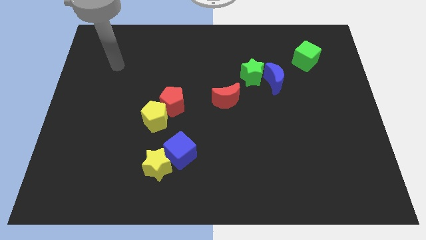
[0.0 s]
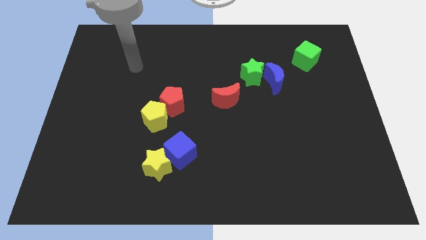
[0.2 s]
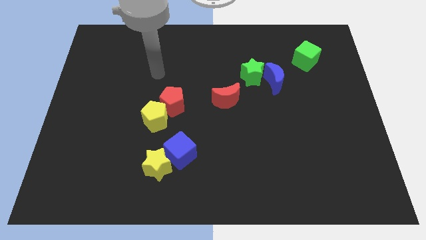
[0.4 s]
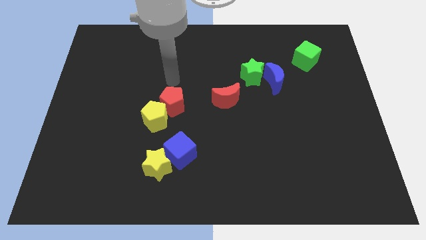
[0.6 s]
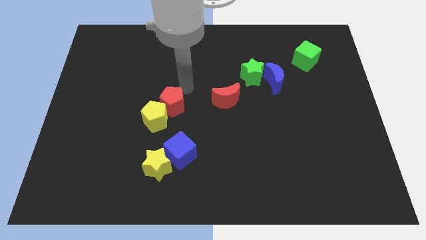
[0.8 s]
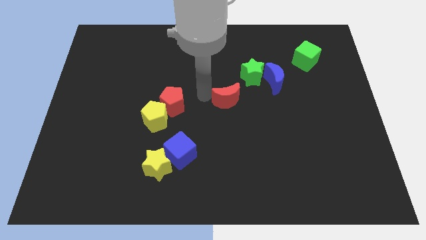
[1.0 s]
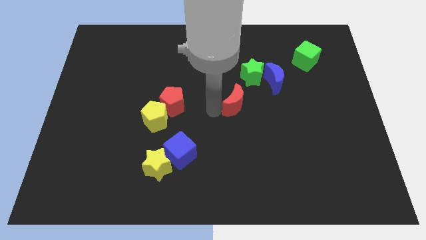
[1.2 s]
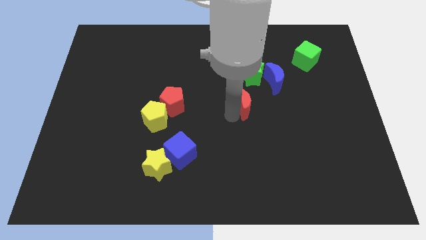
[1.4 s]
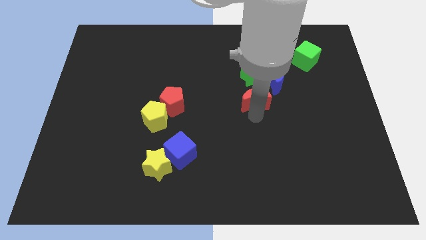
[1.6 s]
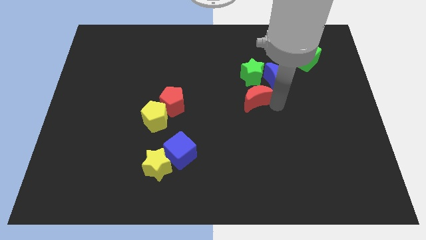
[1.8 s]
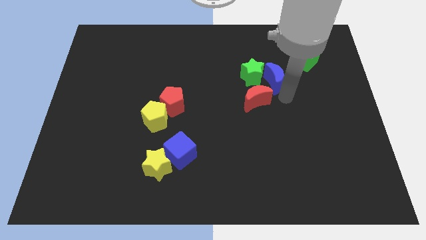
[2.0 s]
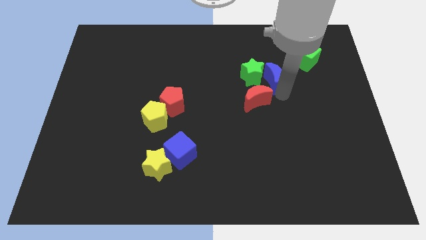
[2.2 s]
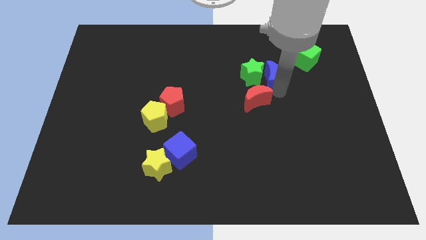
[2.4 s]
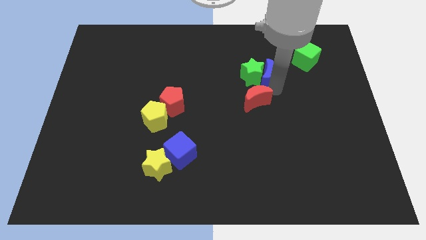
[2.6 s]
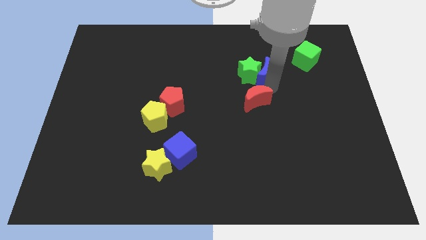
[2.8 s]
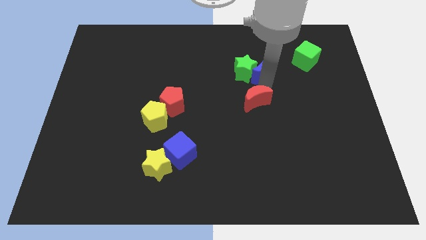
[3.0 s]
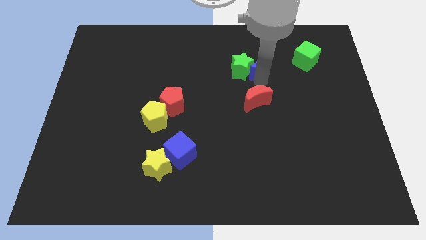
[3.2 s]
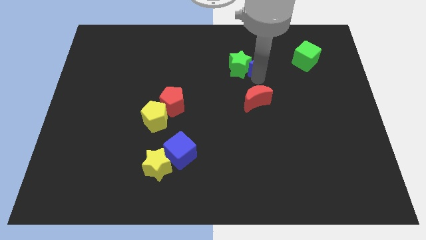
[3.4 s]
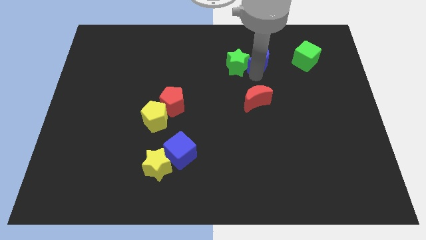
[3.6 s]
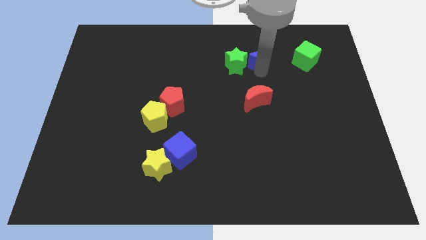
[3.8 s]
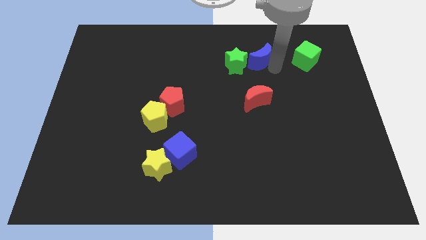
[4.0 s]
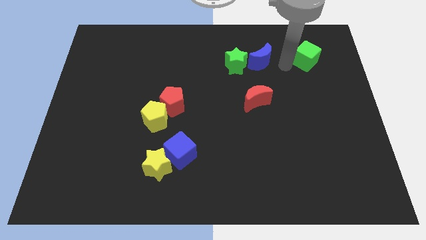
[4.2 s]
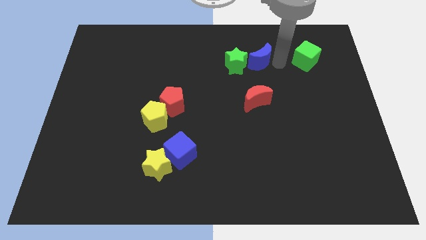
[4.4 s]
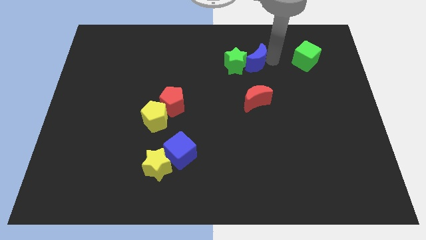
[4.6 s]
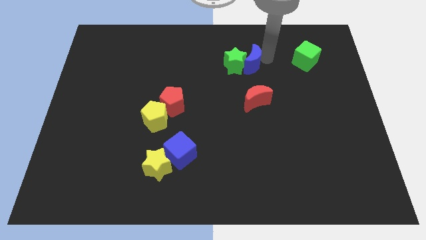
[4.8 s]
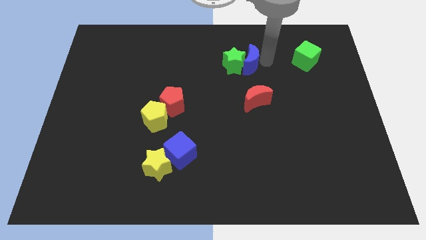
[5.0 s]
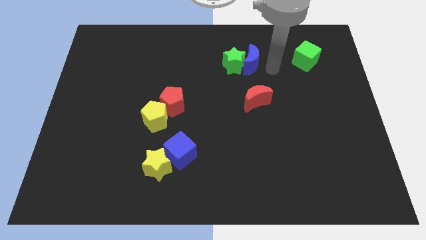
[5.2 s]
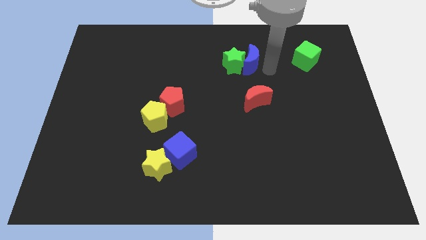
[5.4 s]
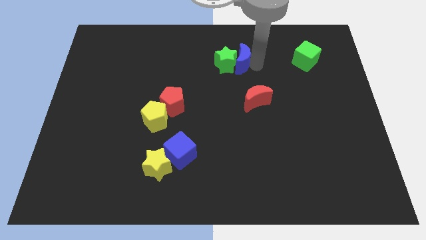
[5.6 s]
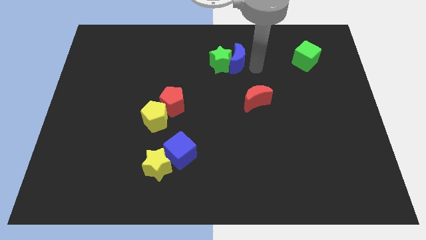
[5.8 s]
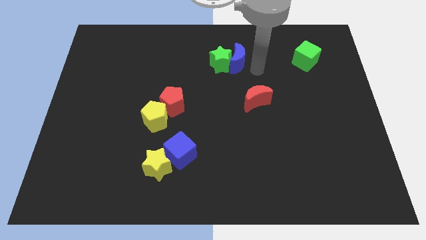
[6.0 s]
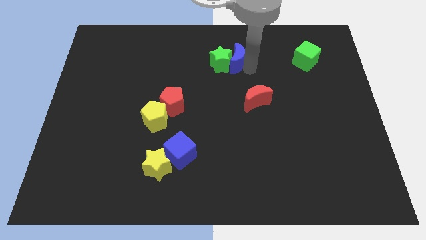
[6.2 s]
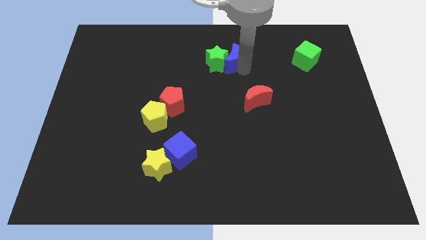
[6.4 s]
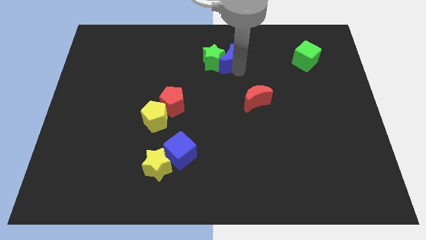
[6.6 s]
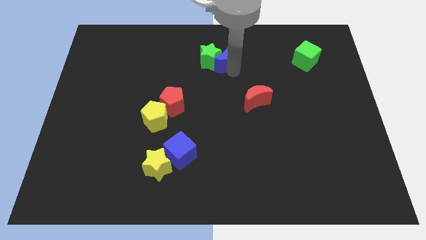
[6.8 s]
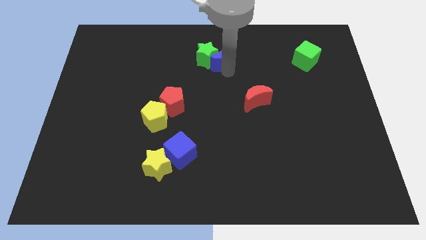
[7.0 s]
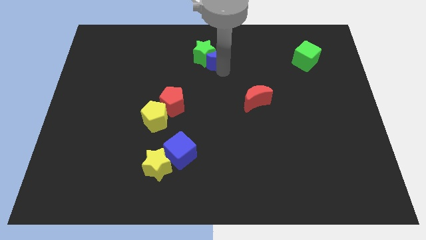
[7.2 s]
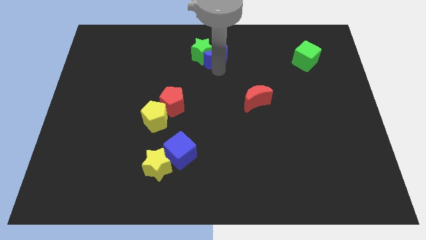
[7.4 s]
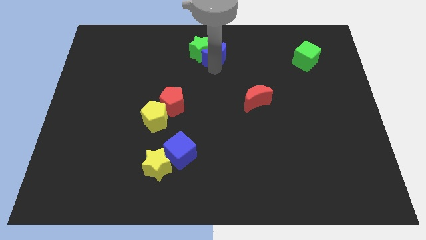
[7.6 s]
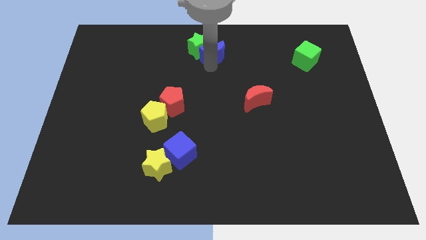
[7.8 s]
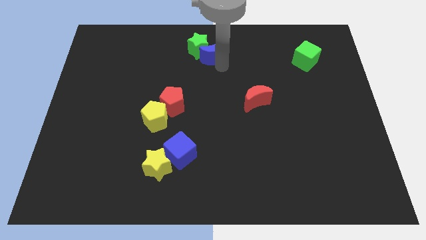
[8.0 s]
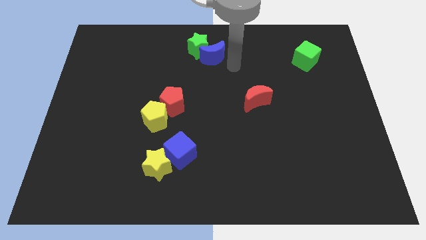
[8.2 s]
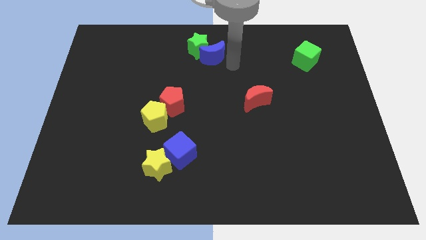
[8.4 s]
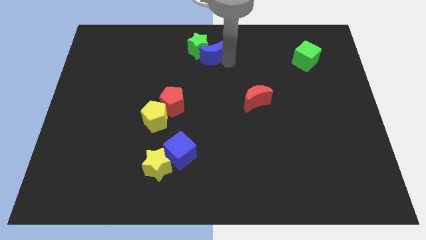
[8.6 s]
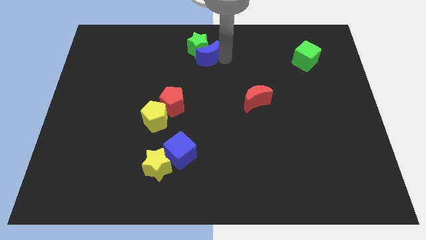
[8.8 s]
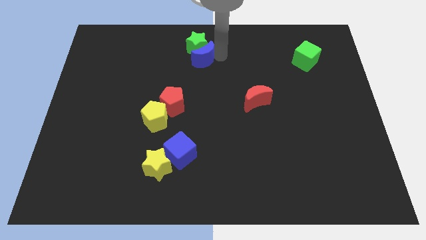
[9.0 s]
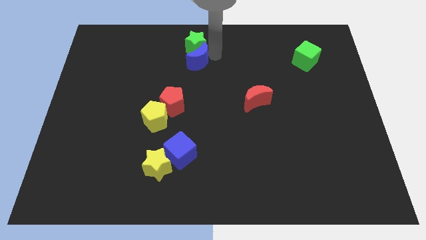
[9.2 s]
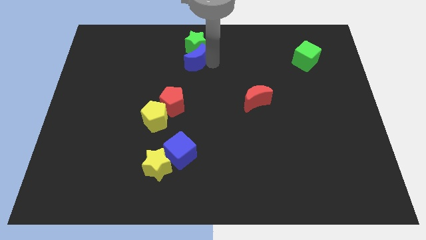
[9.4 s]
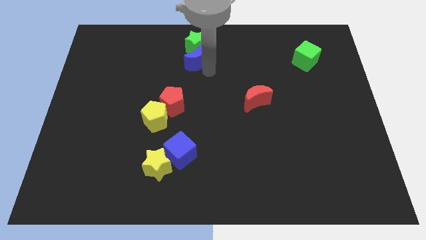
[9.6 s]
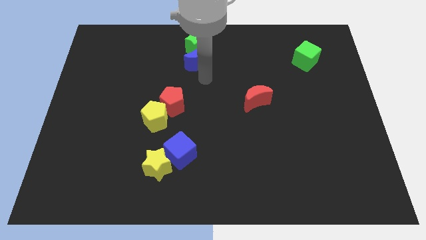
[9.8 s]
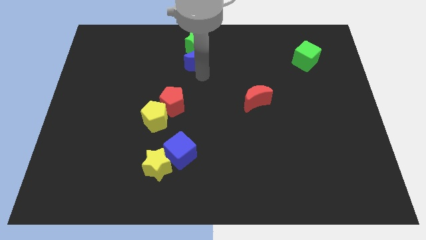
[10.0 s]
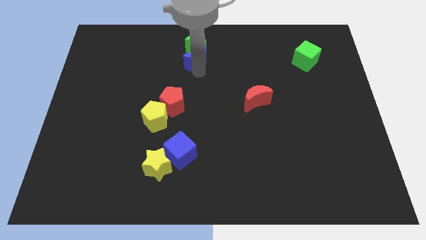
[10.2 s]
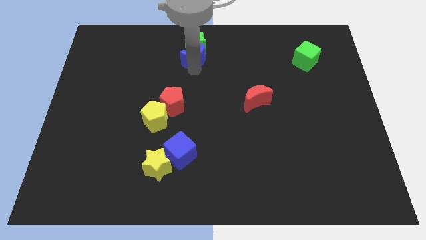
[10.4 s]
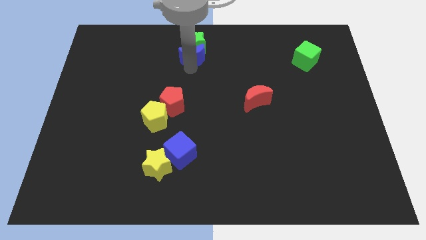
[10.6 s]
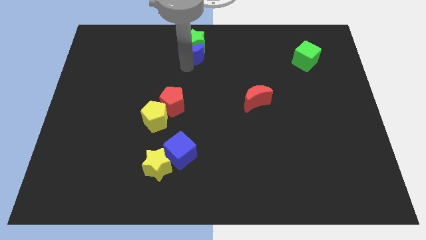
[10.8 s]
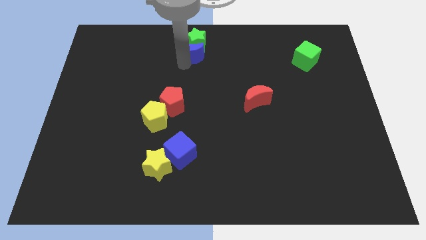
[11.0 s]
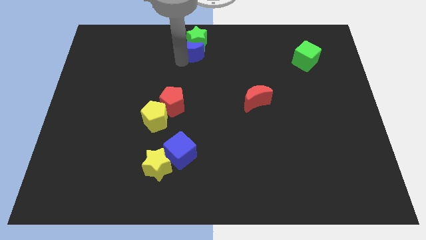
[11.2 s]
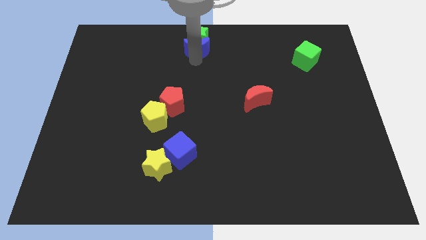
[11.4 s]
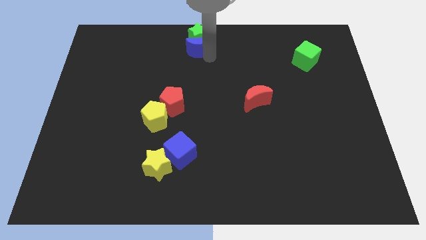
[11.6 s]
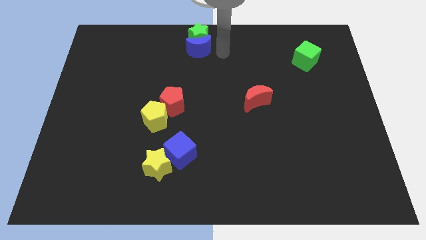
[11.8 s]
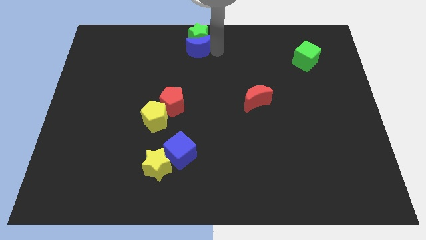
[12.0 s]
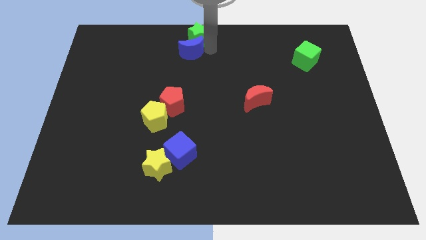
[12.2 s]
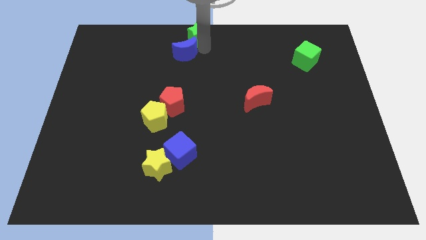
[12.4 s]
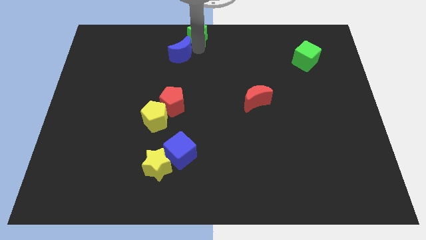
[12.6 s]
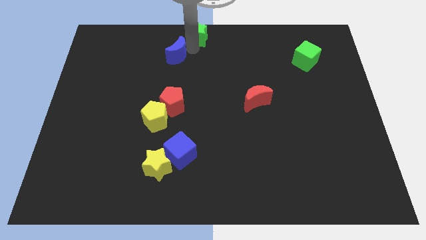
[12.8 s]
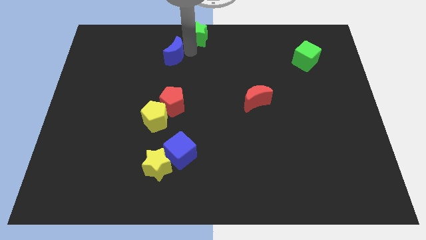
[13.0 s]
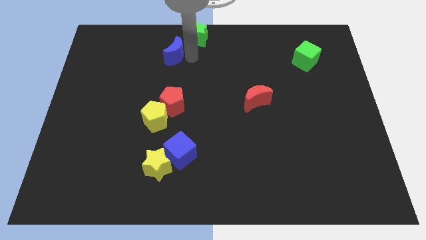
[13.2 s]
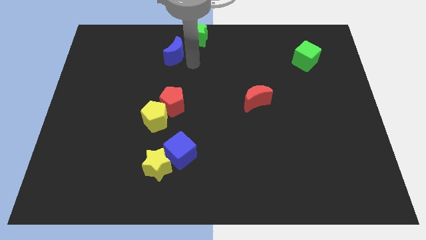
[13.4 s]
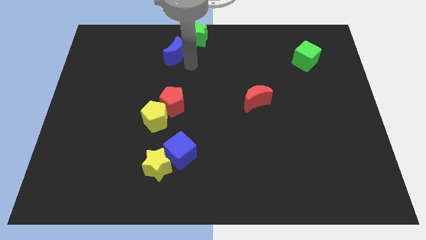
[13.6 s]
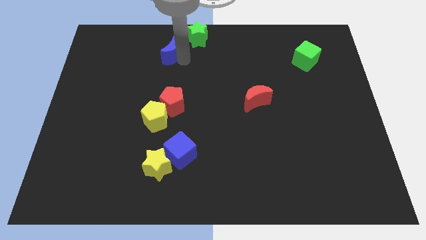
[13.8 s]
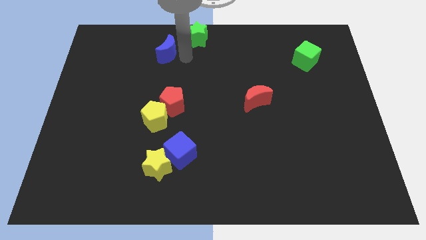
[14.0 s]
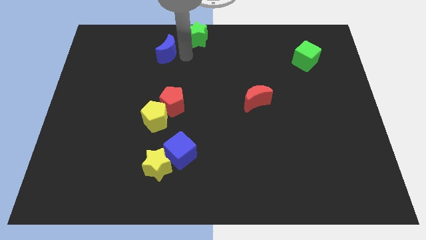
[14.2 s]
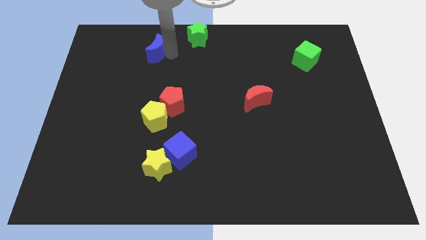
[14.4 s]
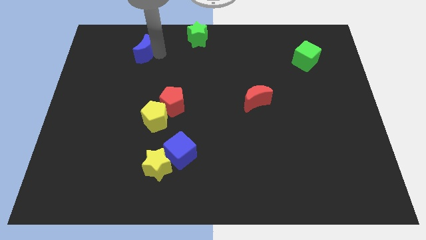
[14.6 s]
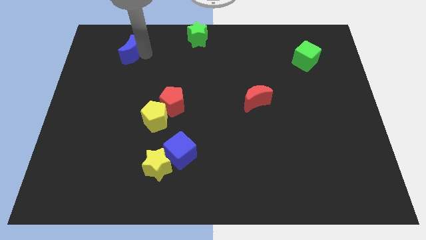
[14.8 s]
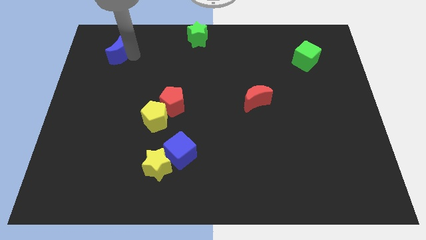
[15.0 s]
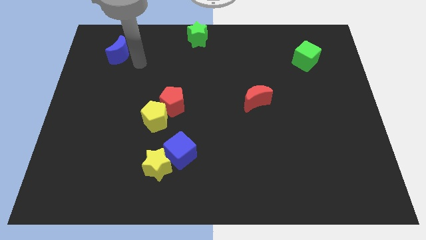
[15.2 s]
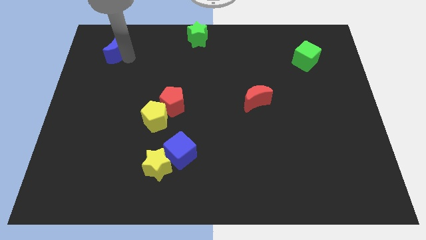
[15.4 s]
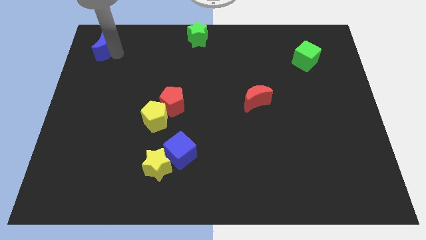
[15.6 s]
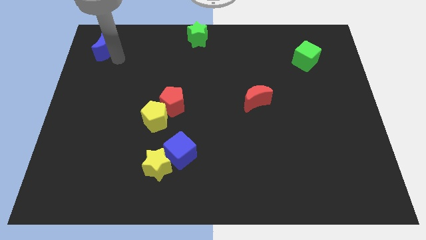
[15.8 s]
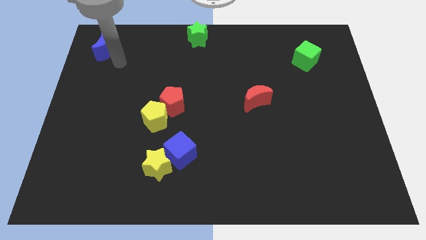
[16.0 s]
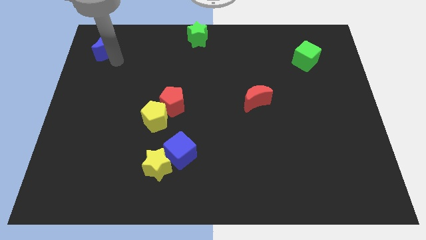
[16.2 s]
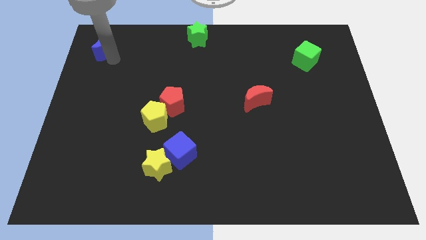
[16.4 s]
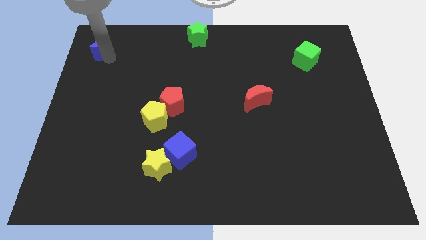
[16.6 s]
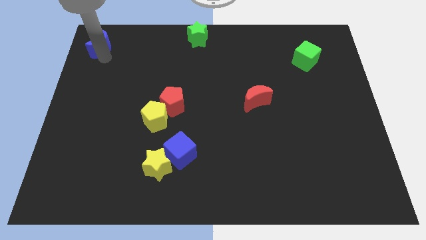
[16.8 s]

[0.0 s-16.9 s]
move the blue moon to the upper left corner
